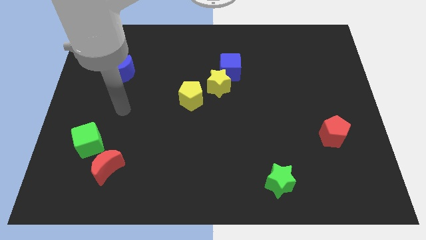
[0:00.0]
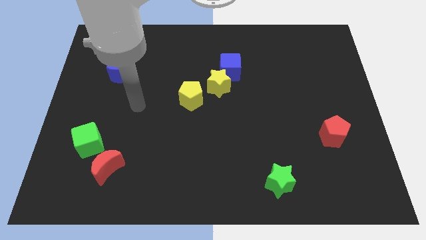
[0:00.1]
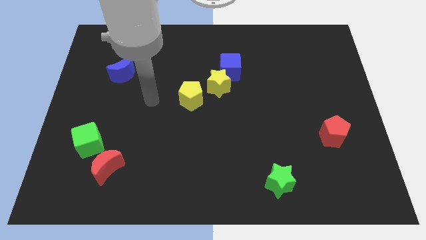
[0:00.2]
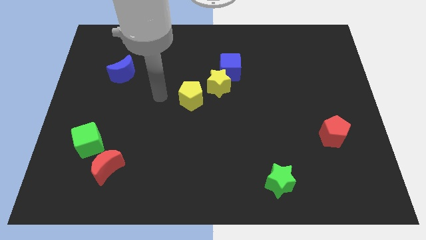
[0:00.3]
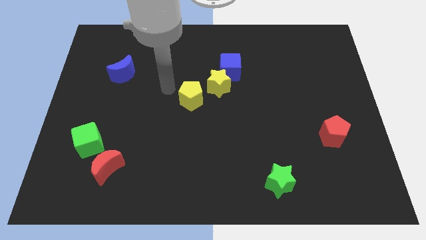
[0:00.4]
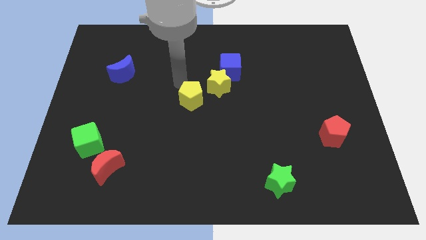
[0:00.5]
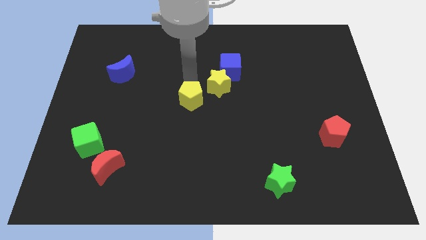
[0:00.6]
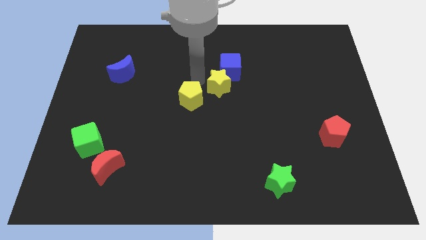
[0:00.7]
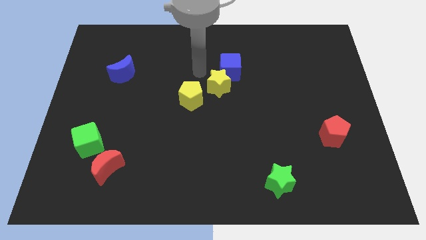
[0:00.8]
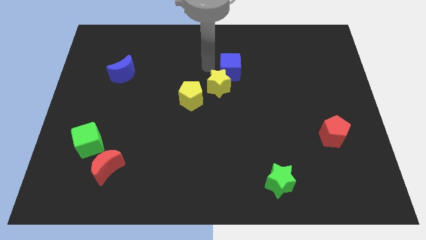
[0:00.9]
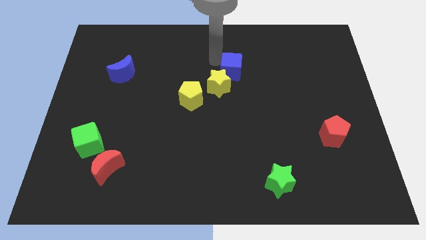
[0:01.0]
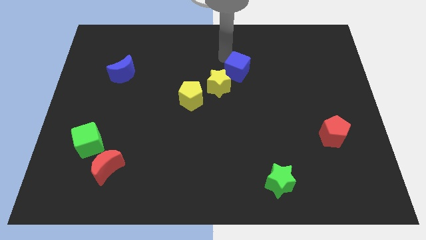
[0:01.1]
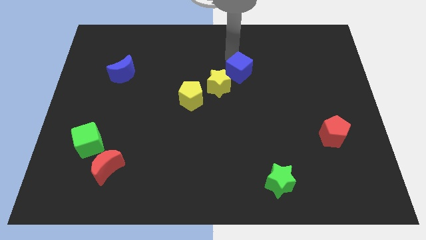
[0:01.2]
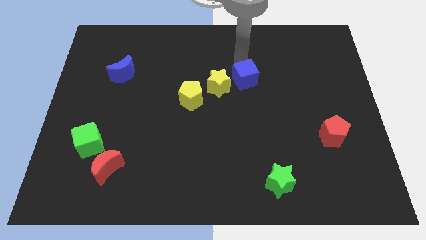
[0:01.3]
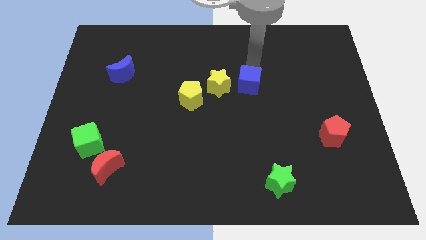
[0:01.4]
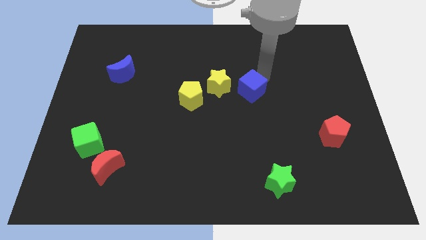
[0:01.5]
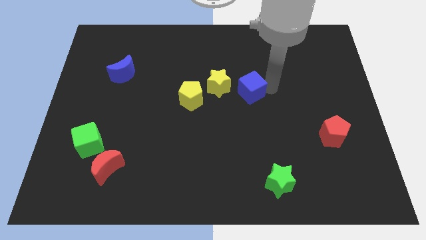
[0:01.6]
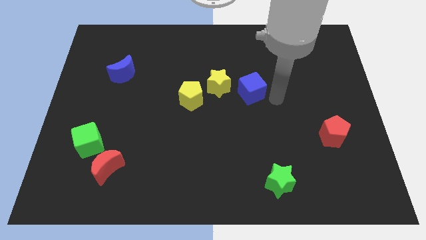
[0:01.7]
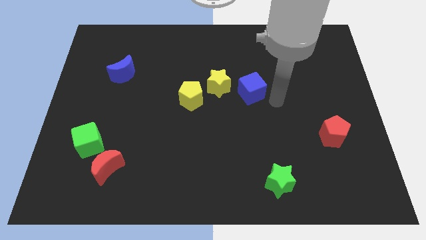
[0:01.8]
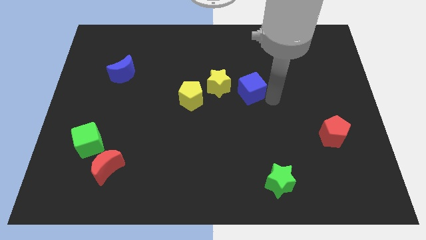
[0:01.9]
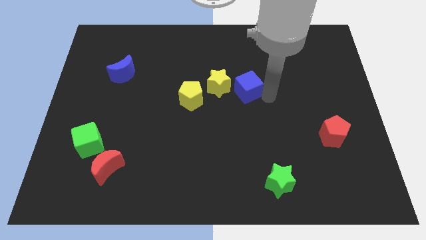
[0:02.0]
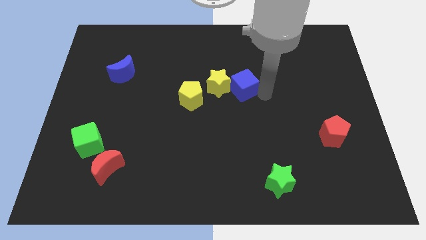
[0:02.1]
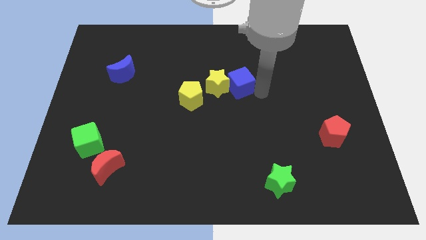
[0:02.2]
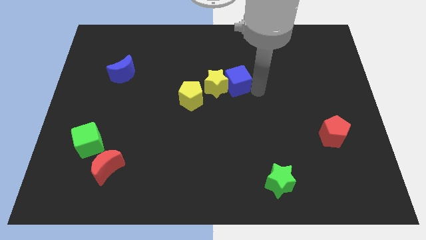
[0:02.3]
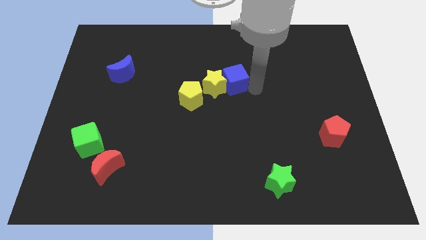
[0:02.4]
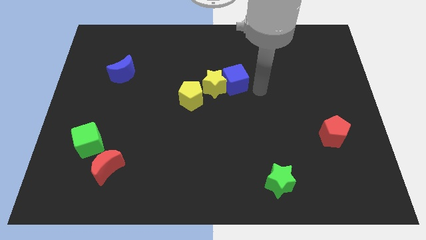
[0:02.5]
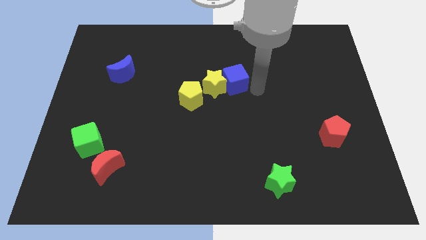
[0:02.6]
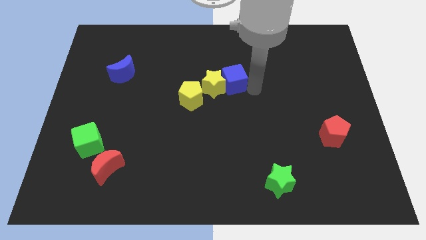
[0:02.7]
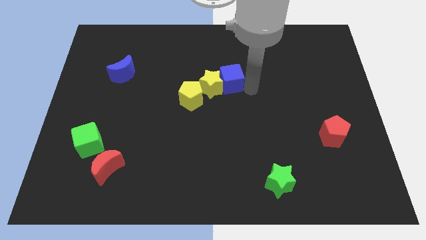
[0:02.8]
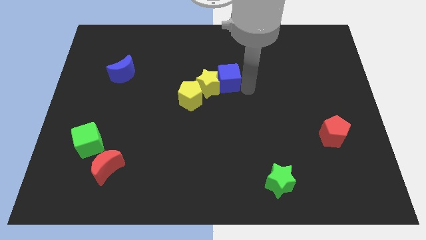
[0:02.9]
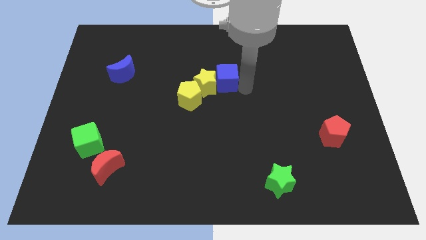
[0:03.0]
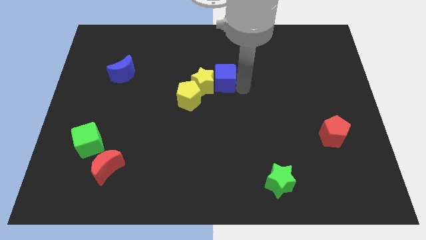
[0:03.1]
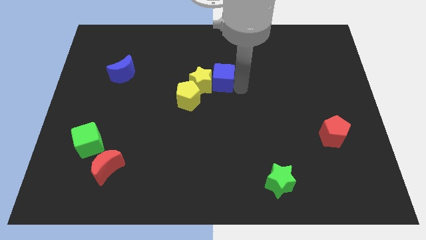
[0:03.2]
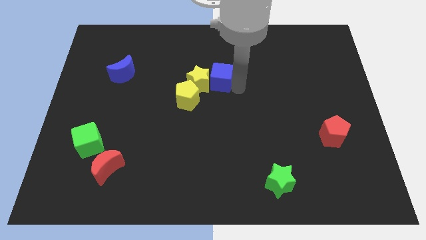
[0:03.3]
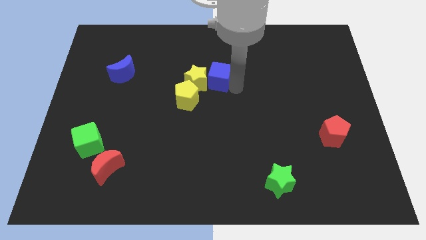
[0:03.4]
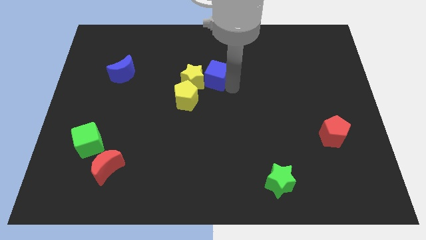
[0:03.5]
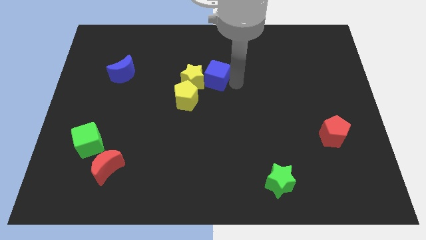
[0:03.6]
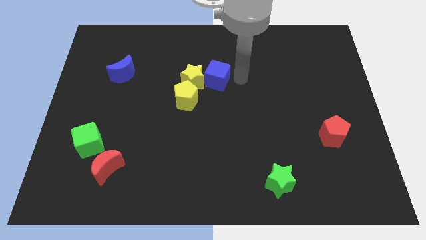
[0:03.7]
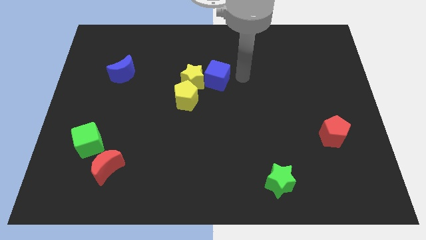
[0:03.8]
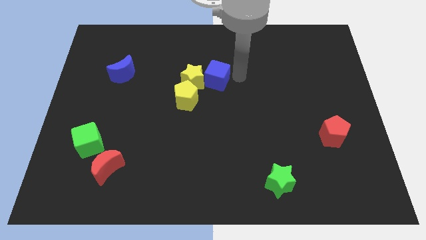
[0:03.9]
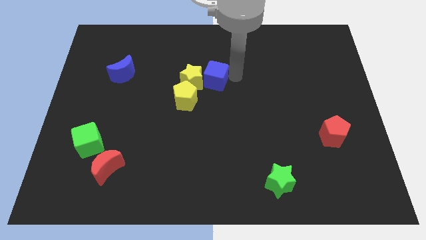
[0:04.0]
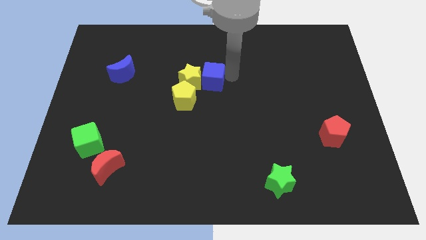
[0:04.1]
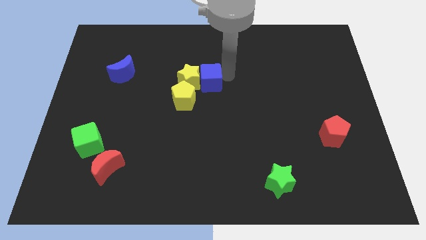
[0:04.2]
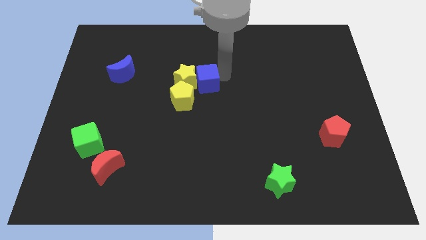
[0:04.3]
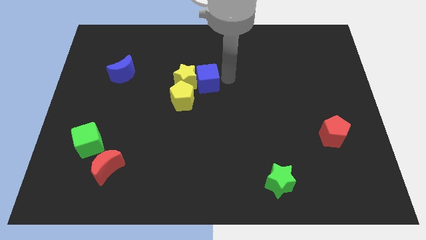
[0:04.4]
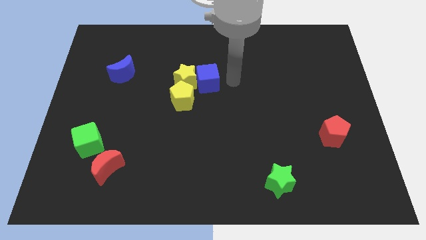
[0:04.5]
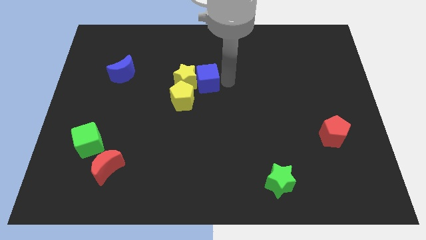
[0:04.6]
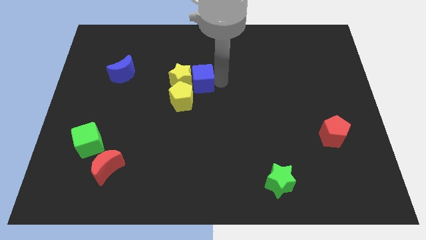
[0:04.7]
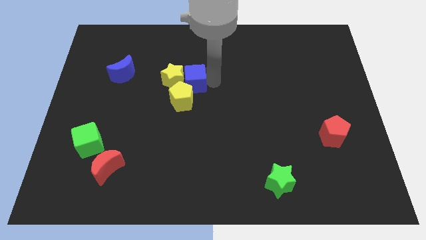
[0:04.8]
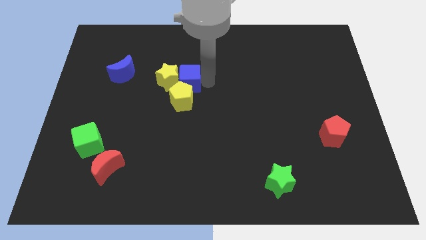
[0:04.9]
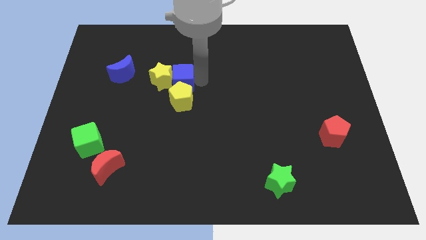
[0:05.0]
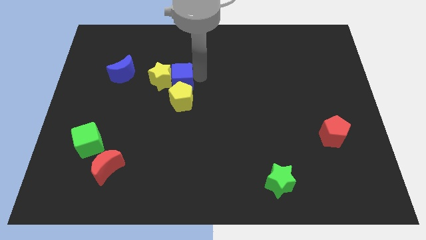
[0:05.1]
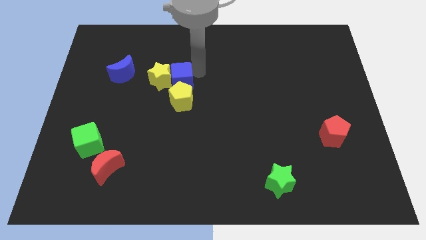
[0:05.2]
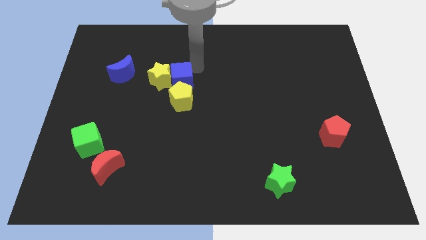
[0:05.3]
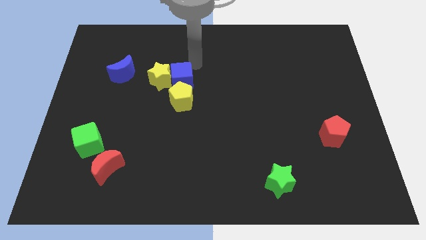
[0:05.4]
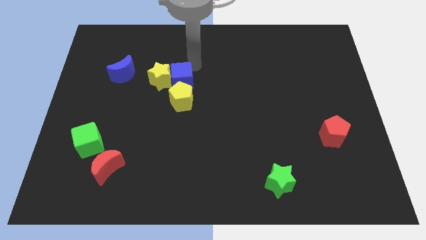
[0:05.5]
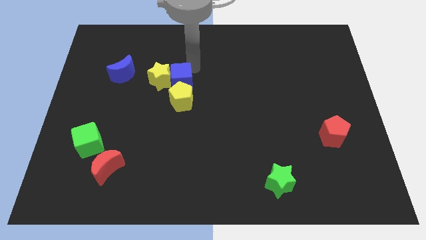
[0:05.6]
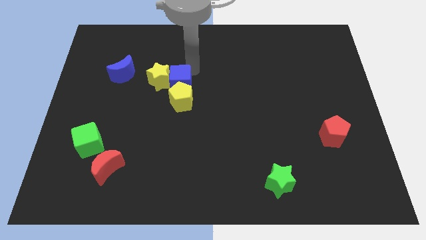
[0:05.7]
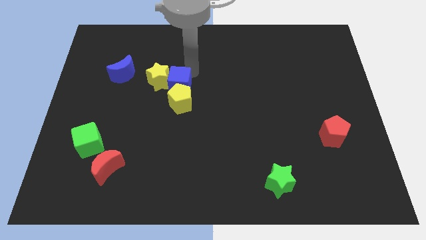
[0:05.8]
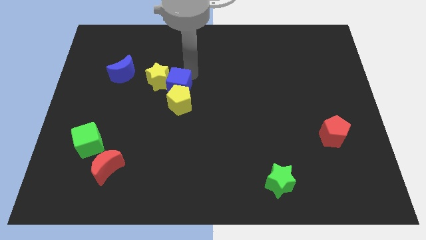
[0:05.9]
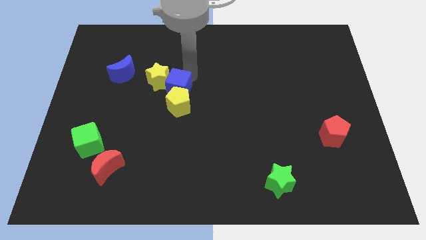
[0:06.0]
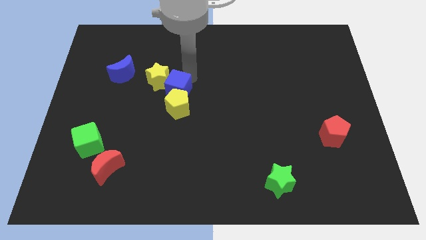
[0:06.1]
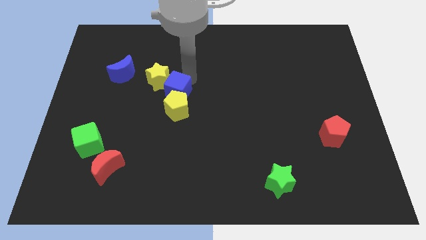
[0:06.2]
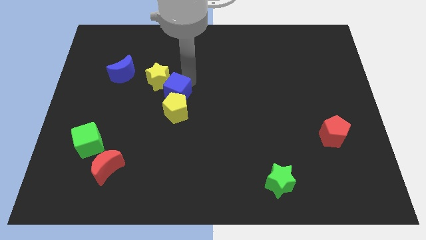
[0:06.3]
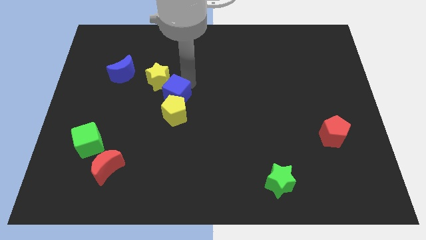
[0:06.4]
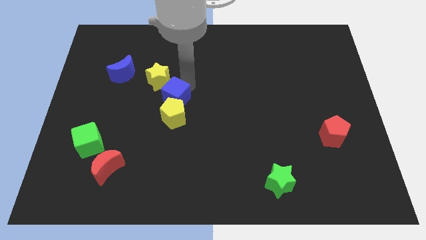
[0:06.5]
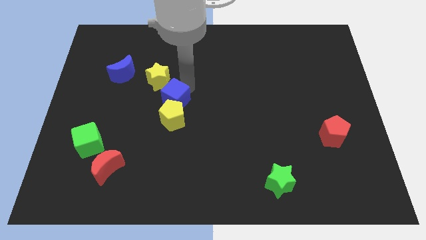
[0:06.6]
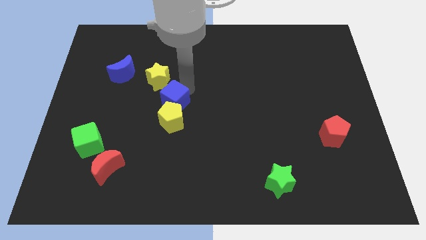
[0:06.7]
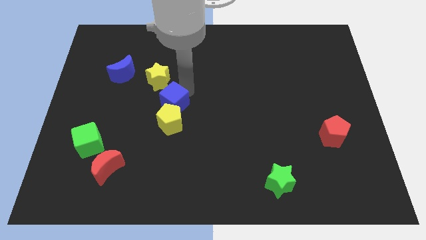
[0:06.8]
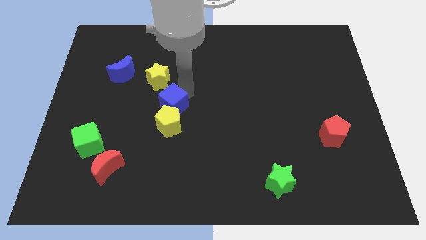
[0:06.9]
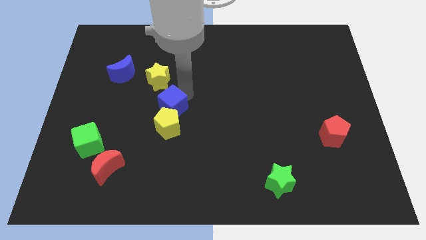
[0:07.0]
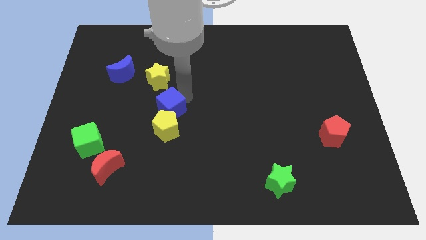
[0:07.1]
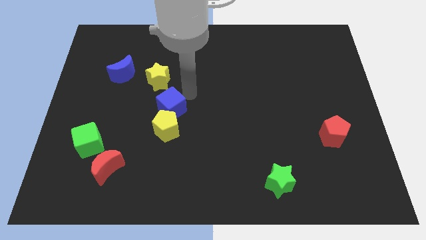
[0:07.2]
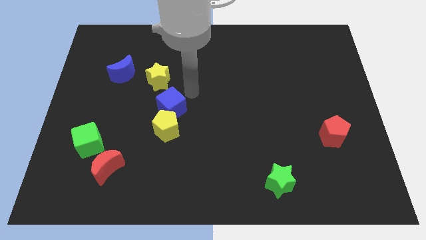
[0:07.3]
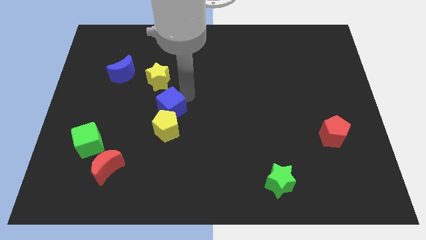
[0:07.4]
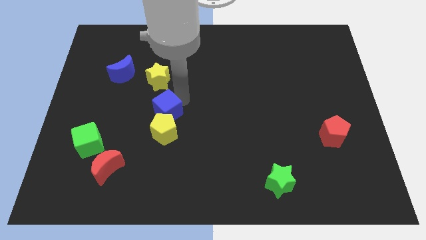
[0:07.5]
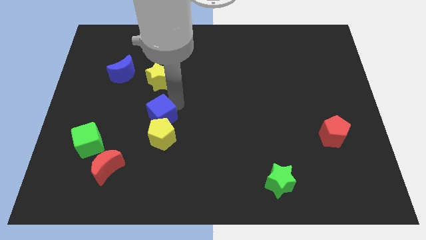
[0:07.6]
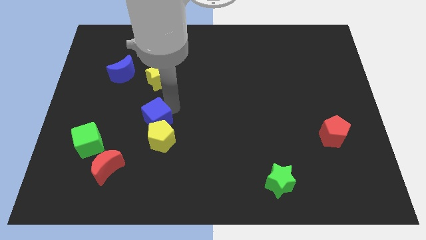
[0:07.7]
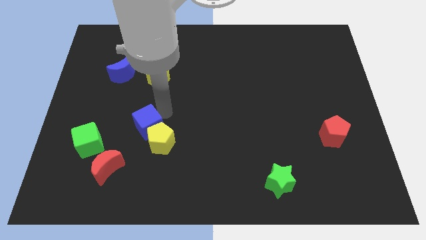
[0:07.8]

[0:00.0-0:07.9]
put the blue cube to the right side of the green cube
